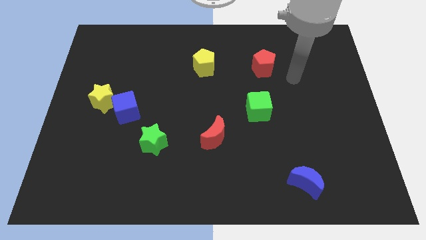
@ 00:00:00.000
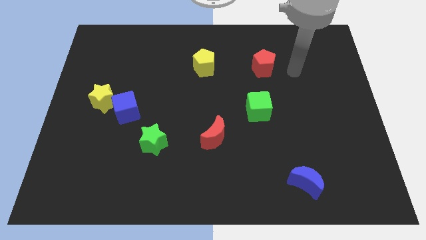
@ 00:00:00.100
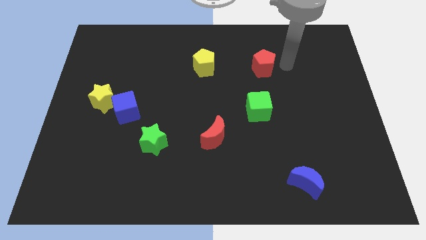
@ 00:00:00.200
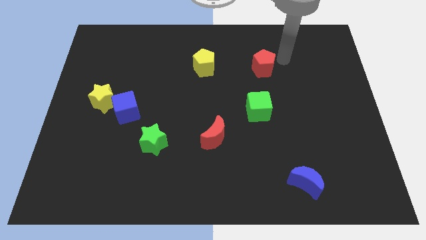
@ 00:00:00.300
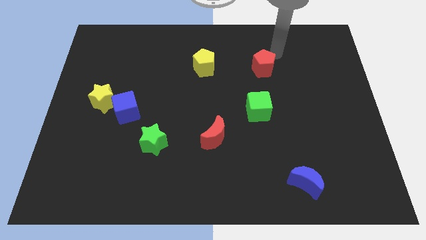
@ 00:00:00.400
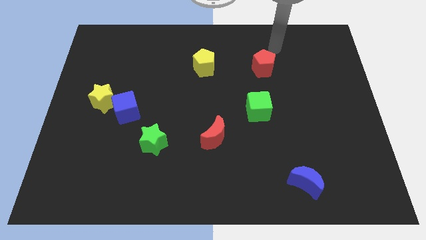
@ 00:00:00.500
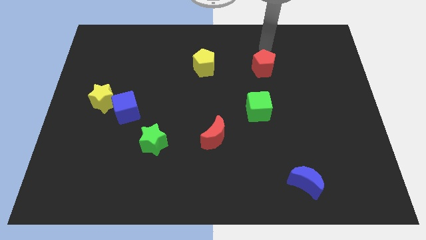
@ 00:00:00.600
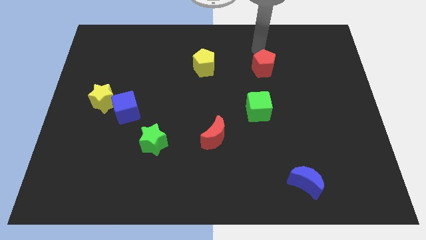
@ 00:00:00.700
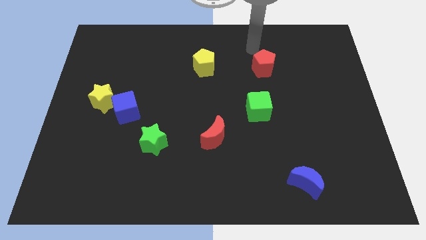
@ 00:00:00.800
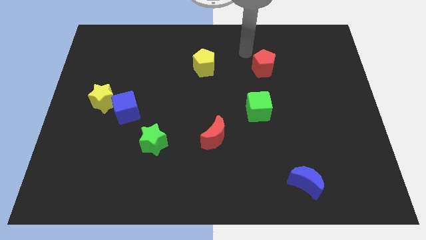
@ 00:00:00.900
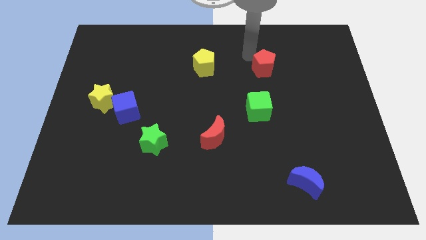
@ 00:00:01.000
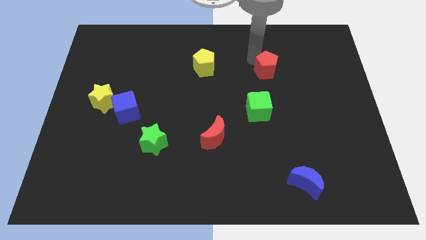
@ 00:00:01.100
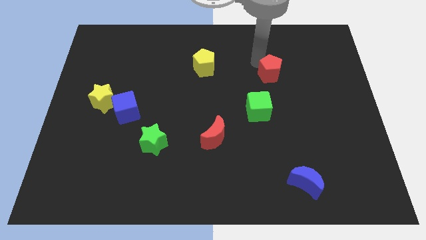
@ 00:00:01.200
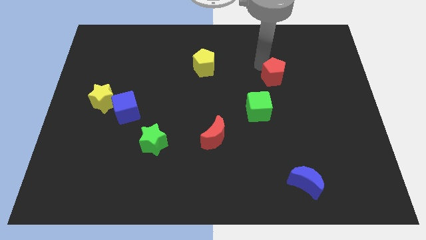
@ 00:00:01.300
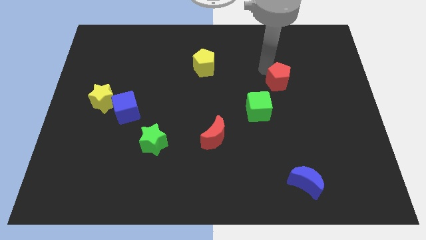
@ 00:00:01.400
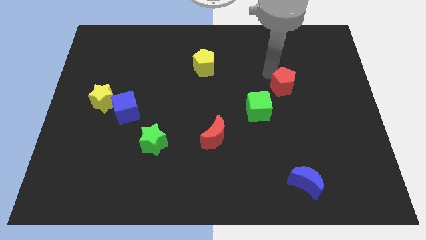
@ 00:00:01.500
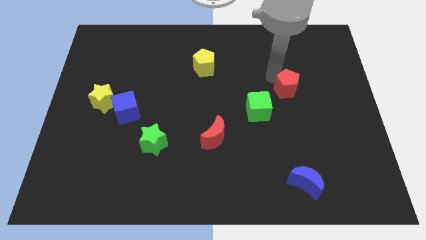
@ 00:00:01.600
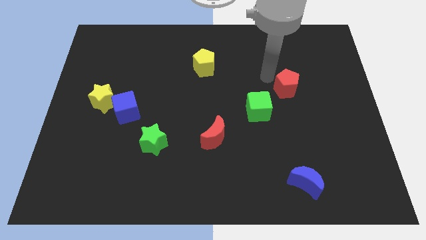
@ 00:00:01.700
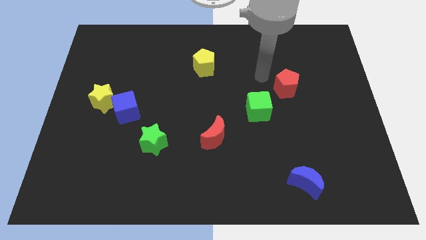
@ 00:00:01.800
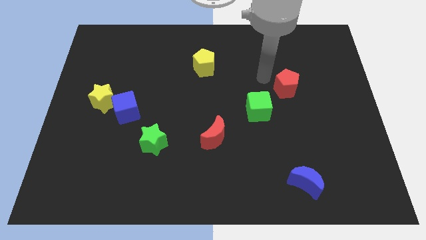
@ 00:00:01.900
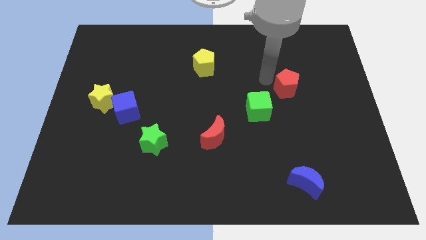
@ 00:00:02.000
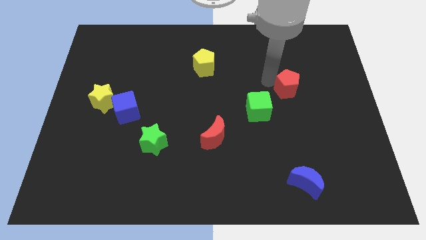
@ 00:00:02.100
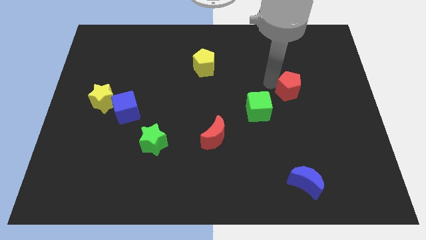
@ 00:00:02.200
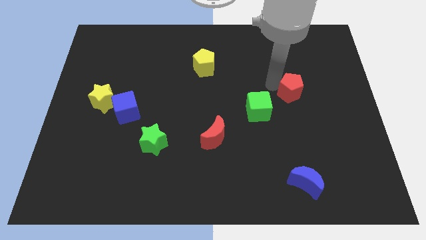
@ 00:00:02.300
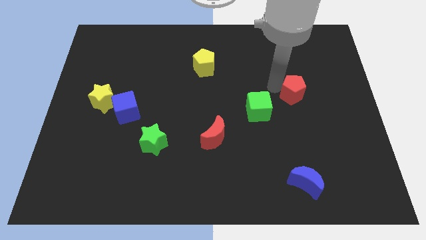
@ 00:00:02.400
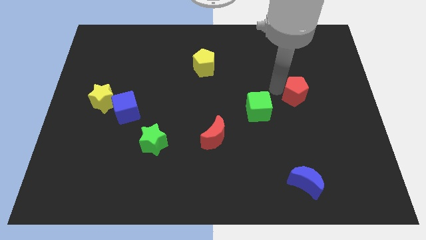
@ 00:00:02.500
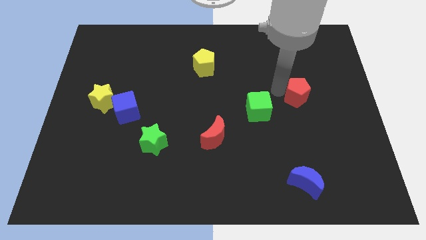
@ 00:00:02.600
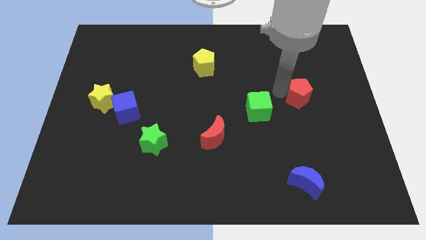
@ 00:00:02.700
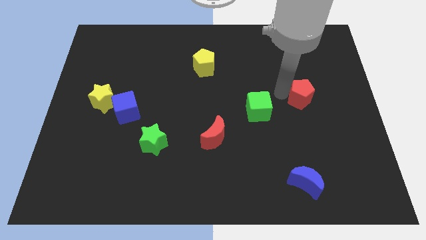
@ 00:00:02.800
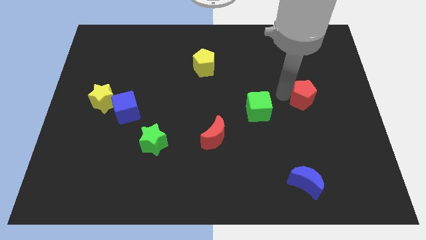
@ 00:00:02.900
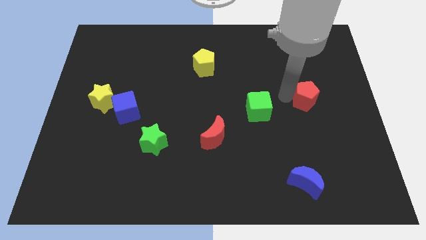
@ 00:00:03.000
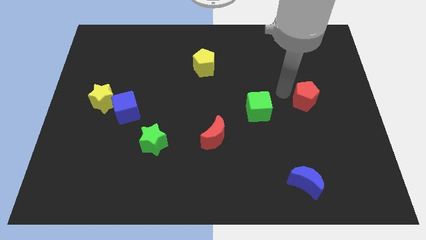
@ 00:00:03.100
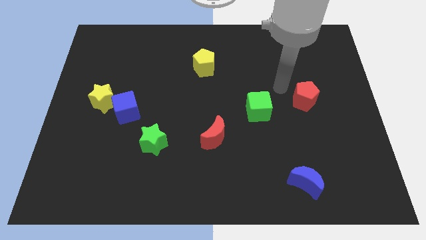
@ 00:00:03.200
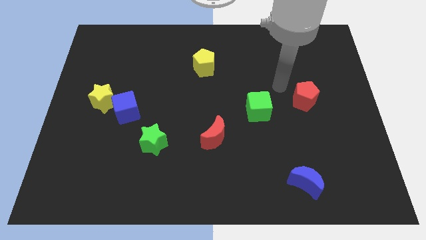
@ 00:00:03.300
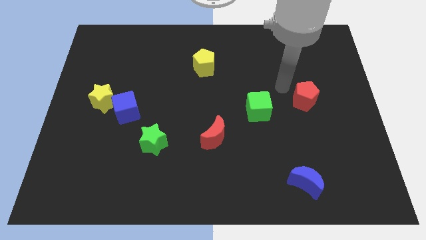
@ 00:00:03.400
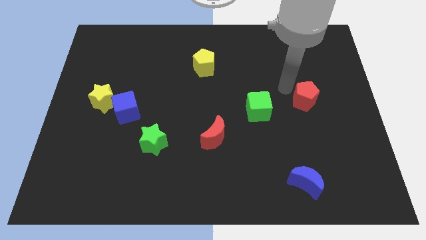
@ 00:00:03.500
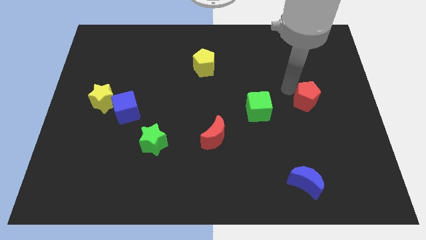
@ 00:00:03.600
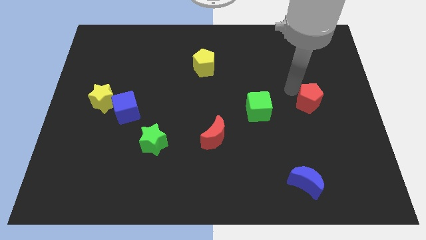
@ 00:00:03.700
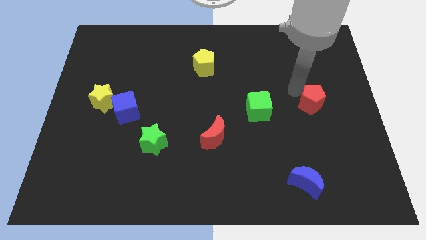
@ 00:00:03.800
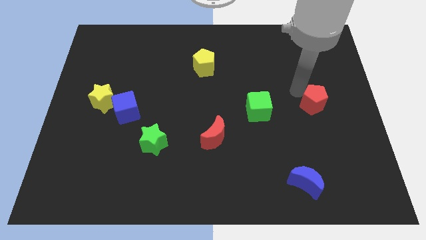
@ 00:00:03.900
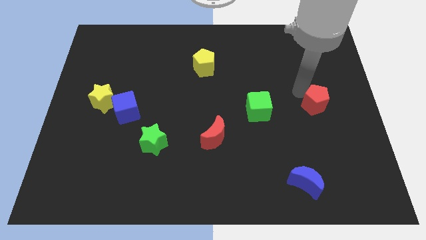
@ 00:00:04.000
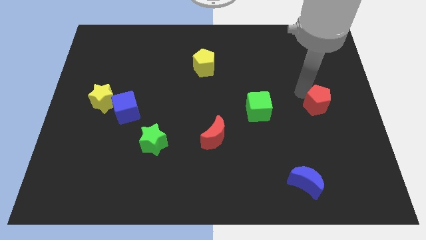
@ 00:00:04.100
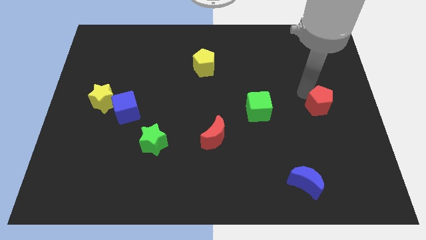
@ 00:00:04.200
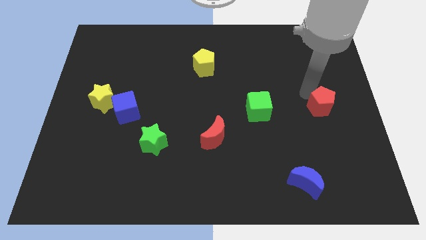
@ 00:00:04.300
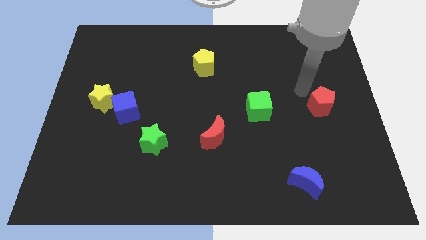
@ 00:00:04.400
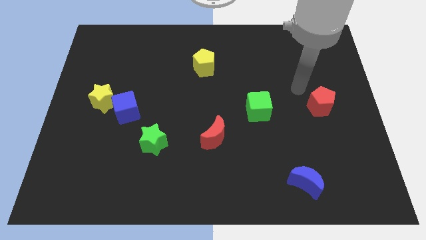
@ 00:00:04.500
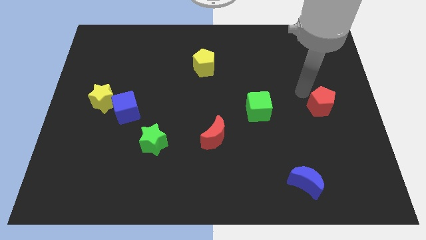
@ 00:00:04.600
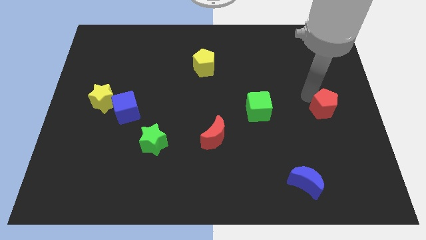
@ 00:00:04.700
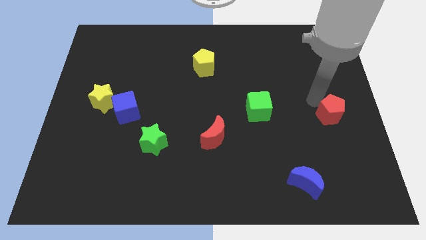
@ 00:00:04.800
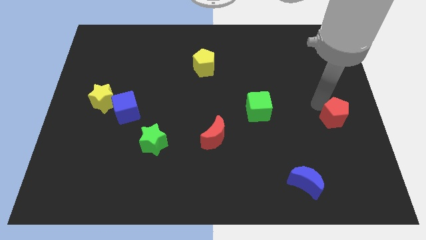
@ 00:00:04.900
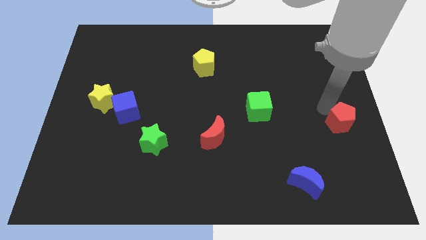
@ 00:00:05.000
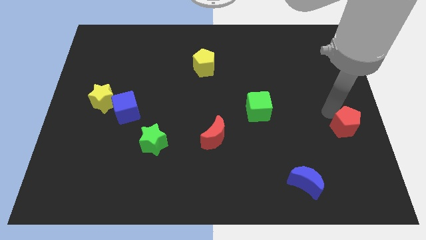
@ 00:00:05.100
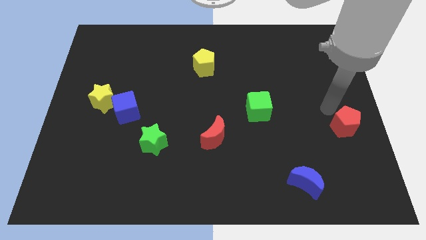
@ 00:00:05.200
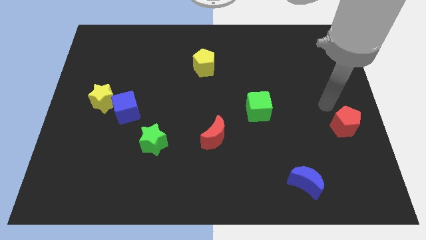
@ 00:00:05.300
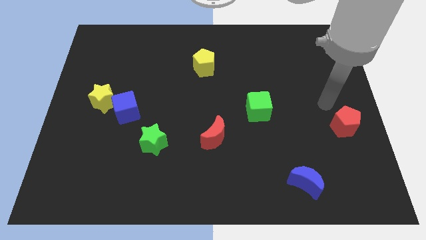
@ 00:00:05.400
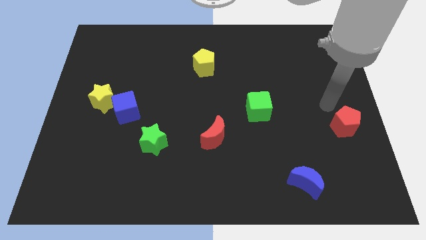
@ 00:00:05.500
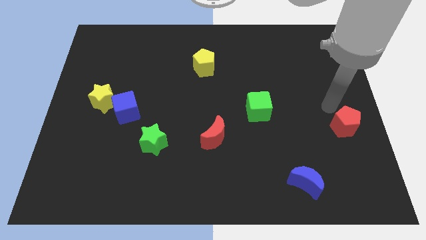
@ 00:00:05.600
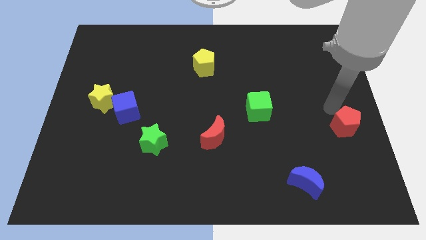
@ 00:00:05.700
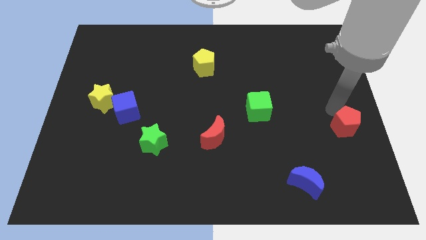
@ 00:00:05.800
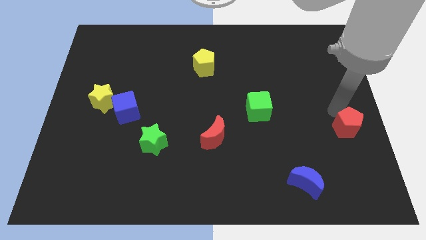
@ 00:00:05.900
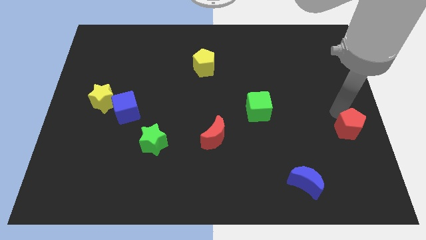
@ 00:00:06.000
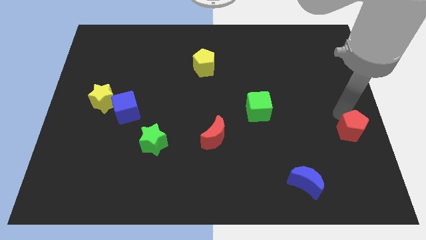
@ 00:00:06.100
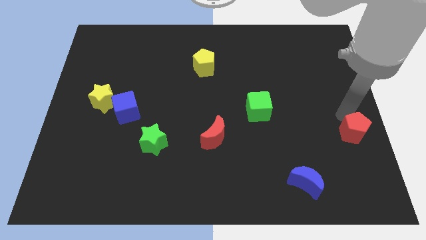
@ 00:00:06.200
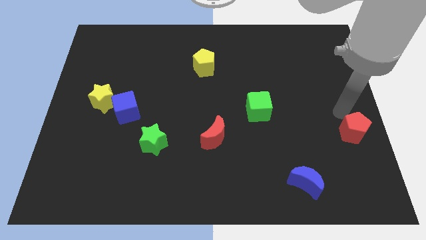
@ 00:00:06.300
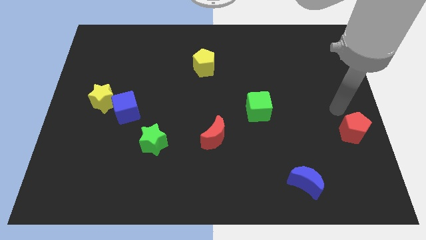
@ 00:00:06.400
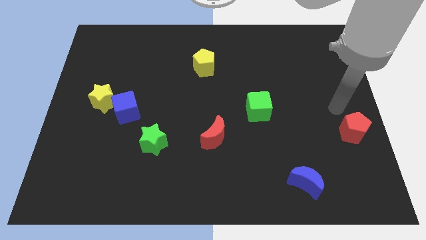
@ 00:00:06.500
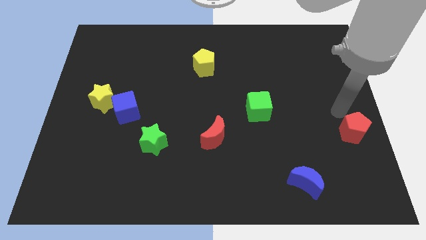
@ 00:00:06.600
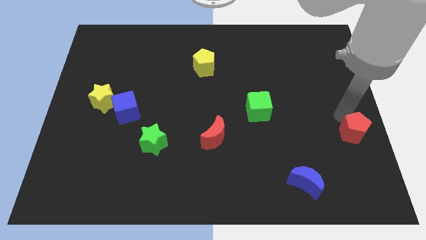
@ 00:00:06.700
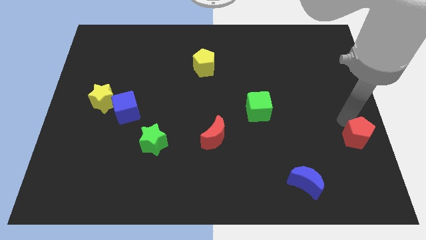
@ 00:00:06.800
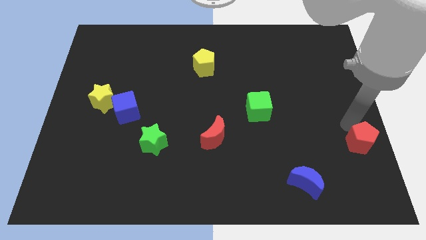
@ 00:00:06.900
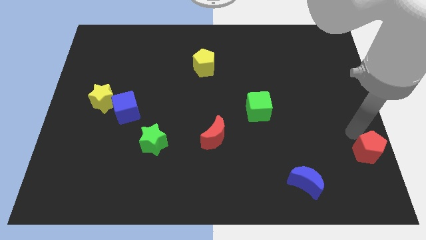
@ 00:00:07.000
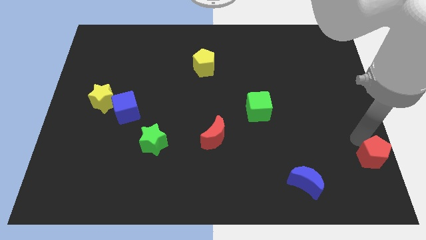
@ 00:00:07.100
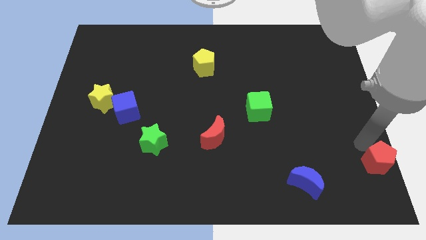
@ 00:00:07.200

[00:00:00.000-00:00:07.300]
push the red pentagon to the lower right corner
